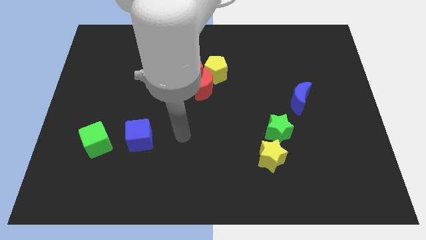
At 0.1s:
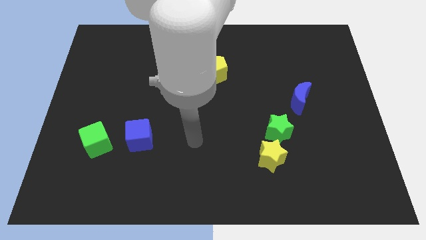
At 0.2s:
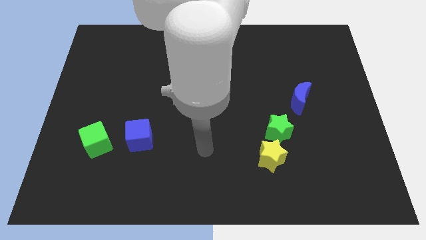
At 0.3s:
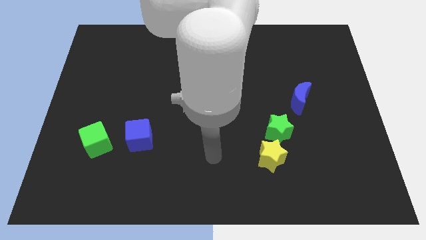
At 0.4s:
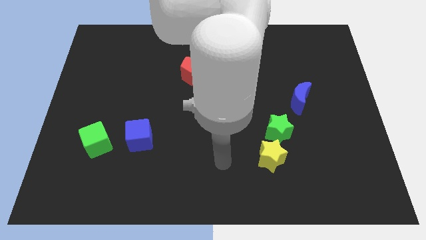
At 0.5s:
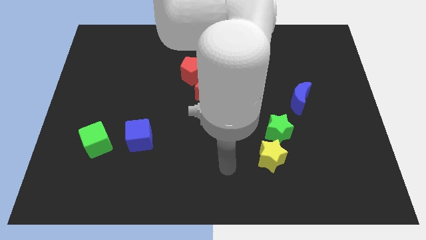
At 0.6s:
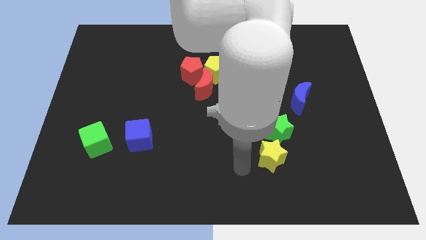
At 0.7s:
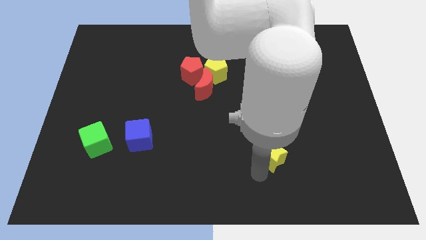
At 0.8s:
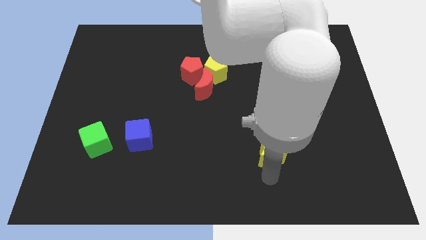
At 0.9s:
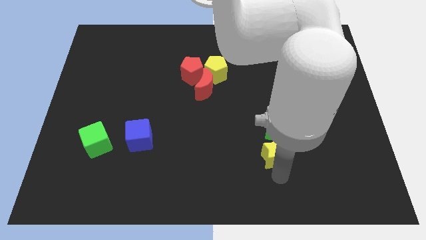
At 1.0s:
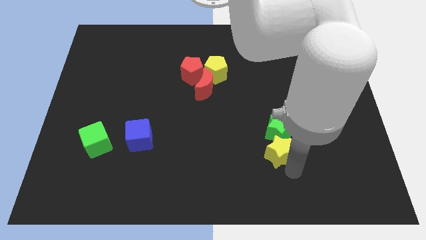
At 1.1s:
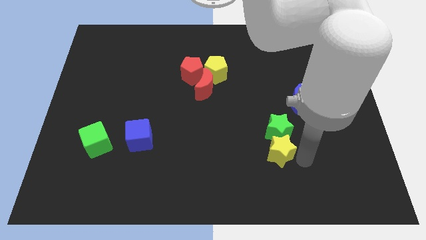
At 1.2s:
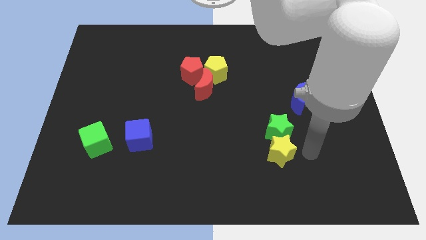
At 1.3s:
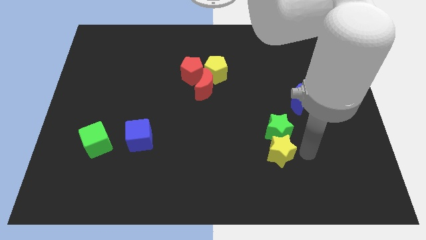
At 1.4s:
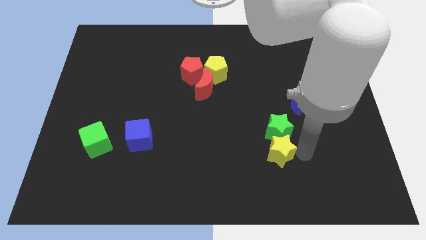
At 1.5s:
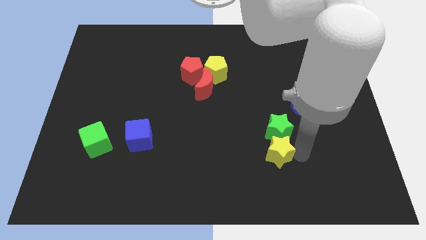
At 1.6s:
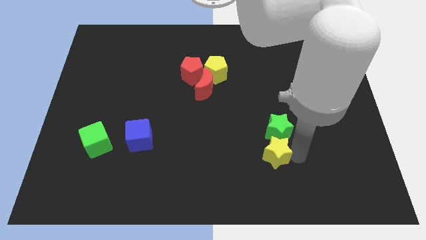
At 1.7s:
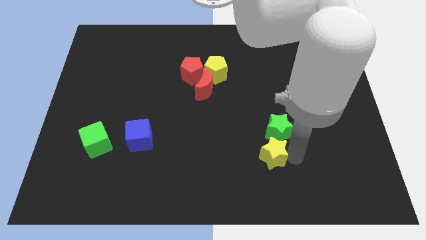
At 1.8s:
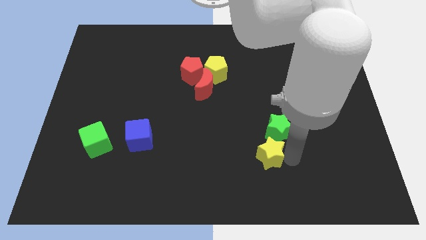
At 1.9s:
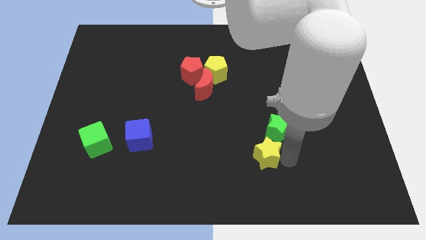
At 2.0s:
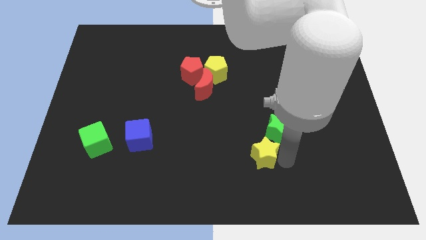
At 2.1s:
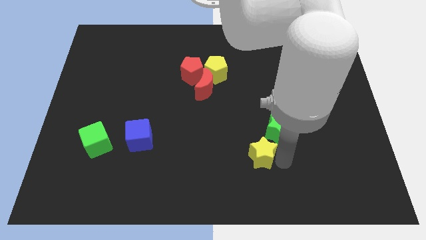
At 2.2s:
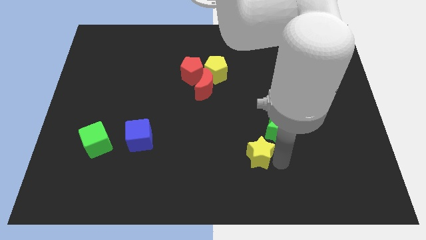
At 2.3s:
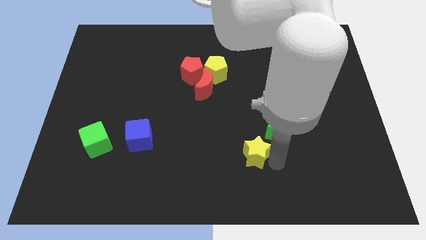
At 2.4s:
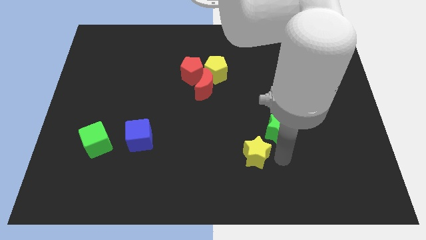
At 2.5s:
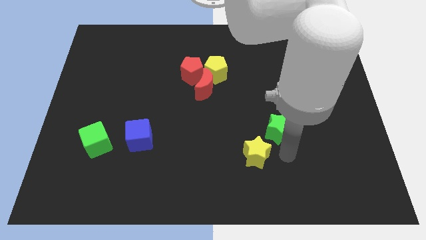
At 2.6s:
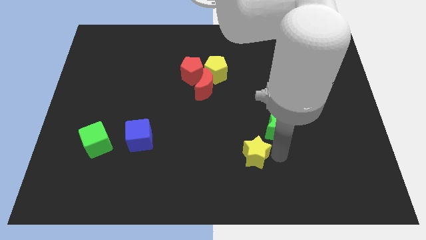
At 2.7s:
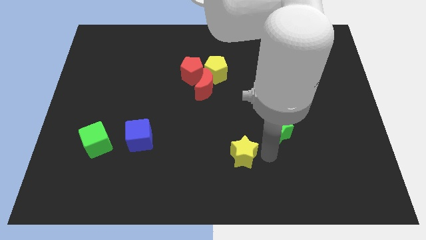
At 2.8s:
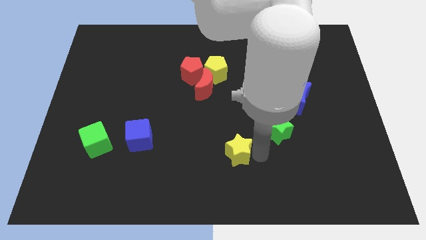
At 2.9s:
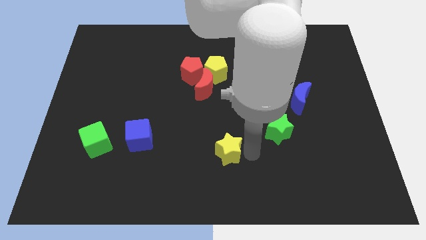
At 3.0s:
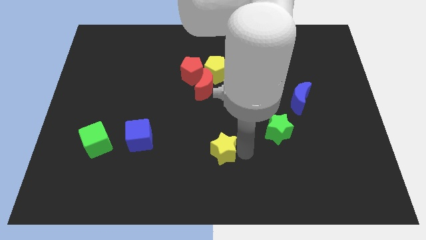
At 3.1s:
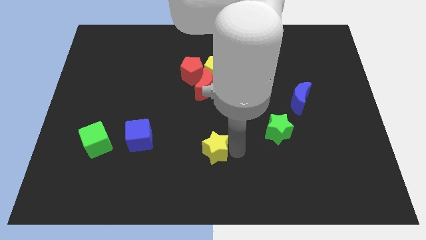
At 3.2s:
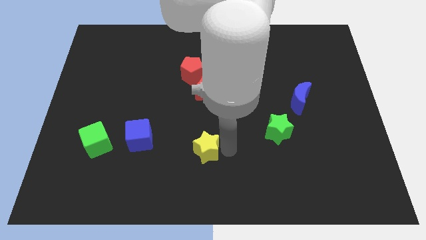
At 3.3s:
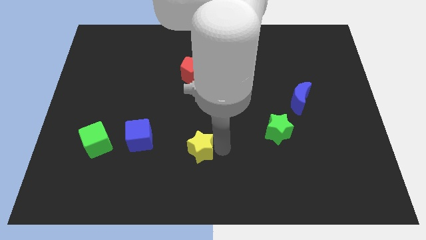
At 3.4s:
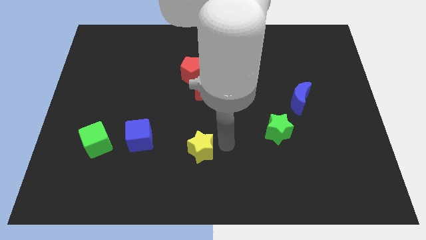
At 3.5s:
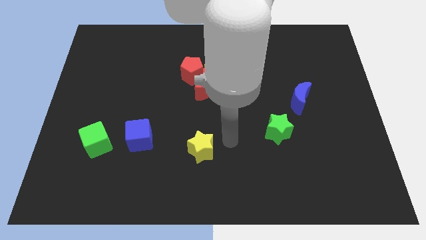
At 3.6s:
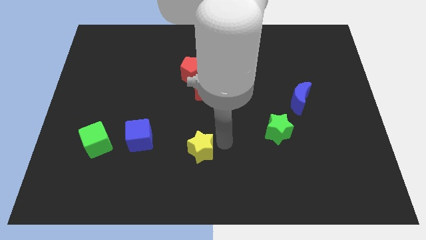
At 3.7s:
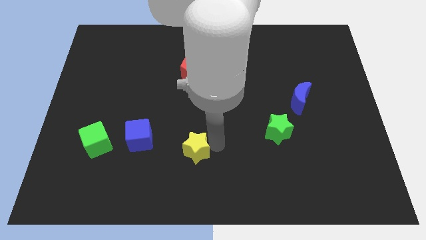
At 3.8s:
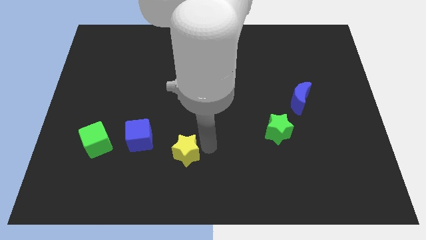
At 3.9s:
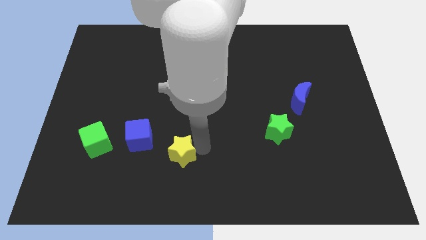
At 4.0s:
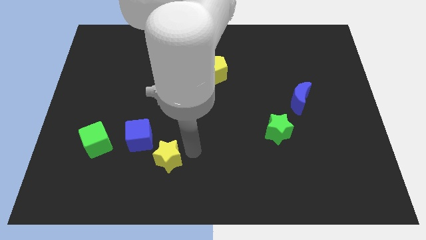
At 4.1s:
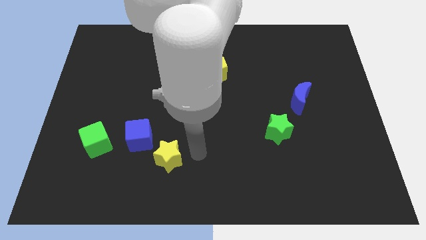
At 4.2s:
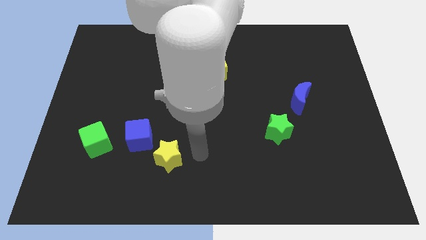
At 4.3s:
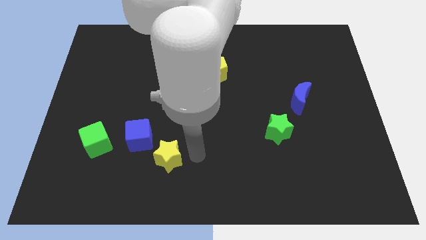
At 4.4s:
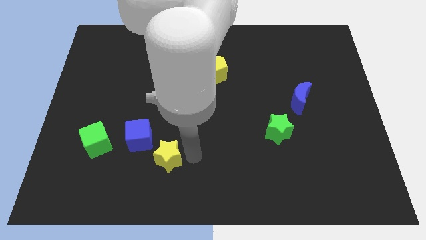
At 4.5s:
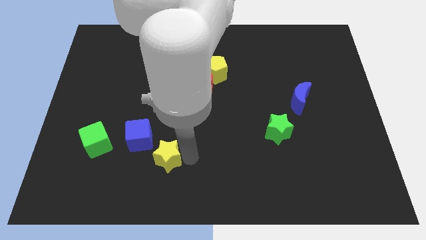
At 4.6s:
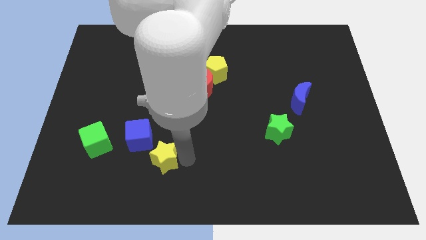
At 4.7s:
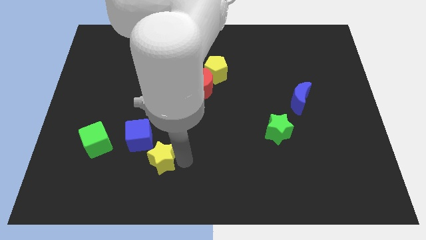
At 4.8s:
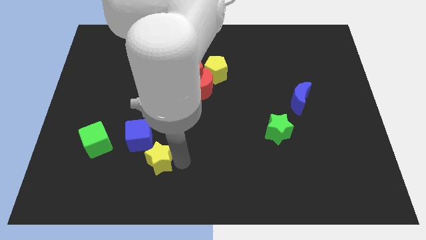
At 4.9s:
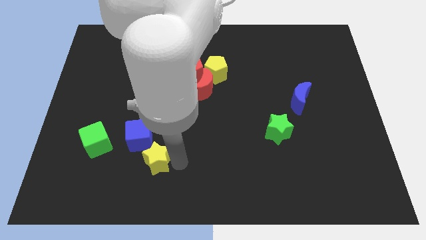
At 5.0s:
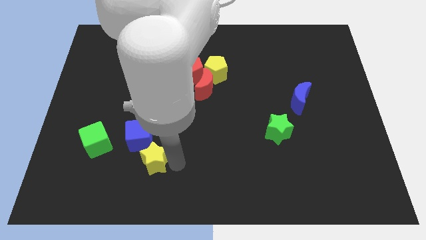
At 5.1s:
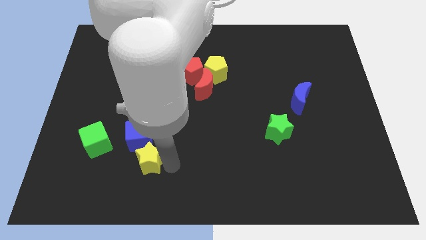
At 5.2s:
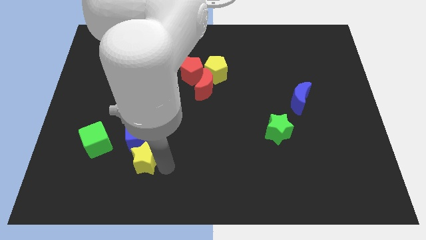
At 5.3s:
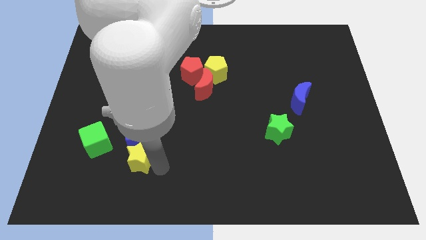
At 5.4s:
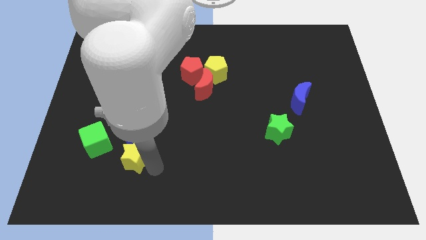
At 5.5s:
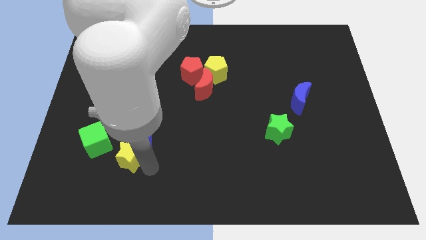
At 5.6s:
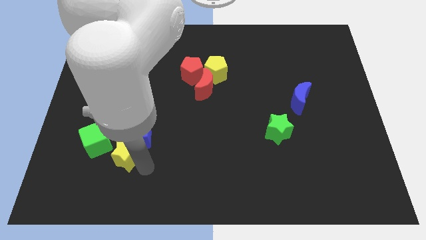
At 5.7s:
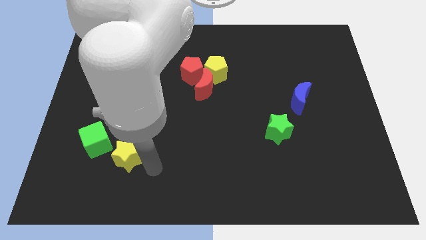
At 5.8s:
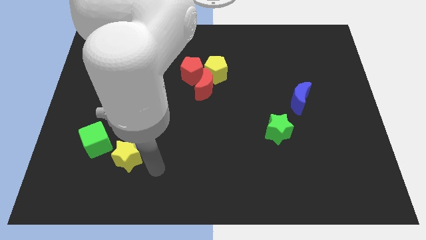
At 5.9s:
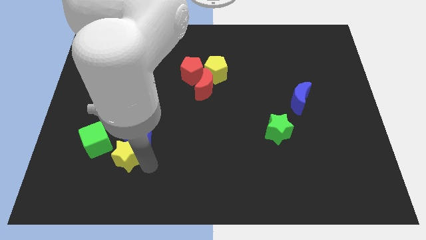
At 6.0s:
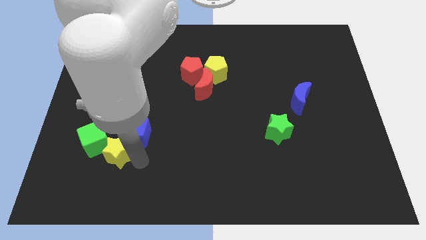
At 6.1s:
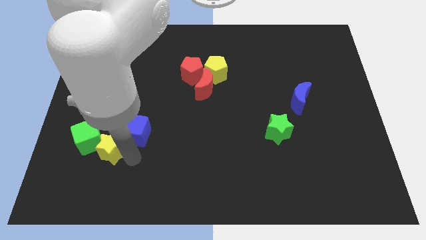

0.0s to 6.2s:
push the yellow star next to the green cube

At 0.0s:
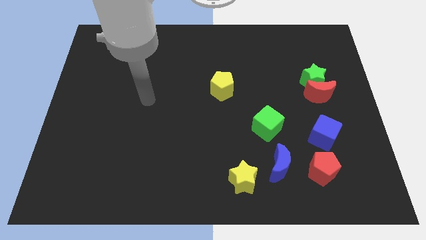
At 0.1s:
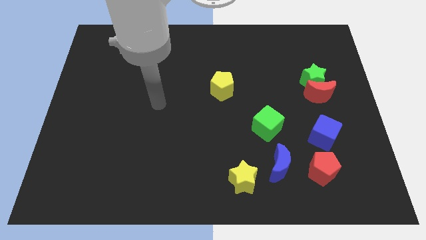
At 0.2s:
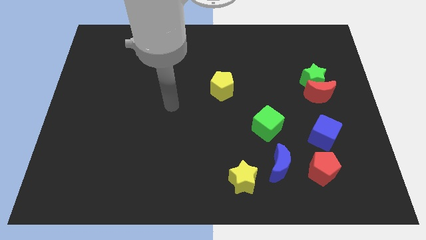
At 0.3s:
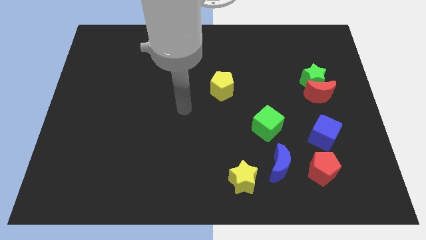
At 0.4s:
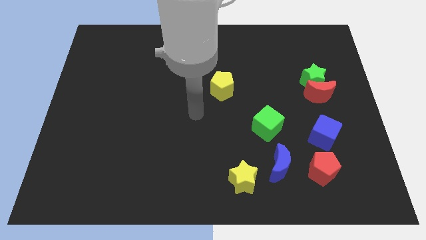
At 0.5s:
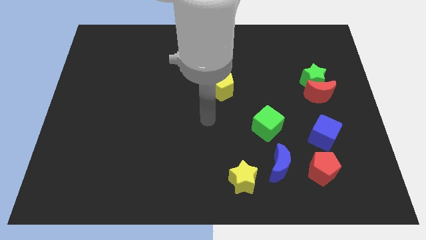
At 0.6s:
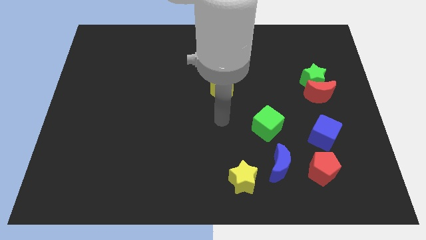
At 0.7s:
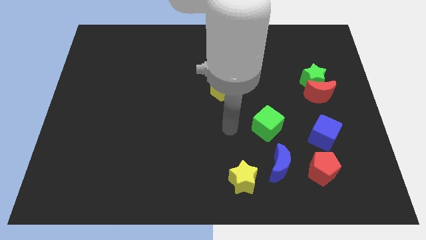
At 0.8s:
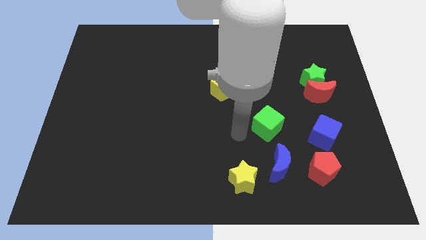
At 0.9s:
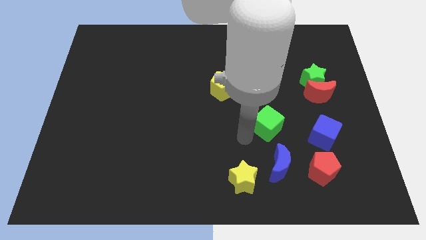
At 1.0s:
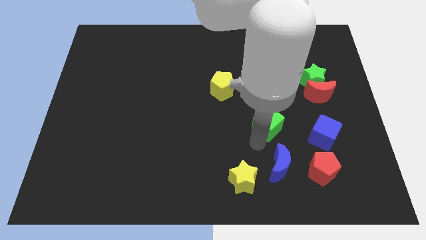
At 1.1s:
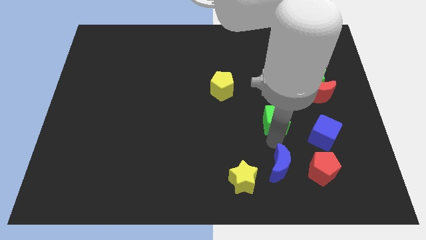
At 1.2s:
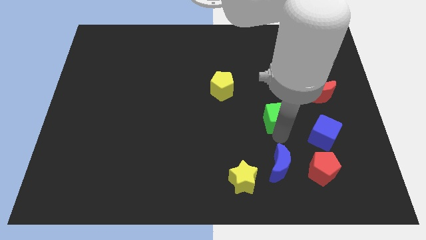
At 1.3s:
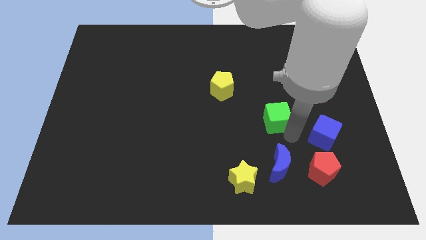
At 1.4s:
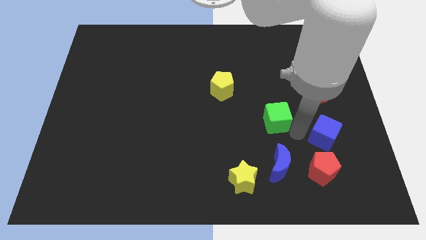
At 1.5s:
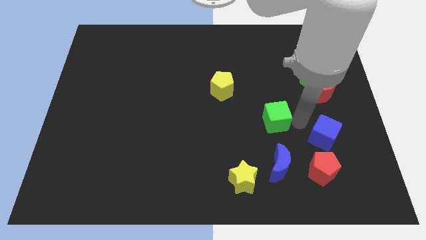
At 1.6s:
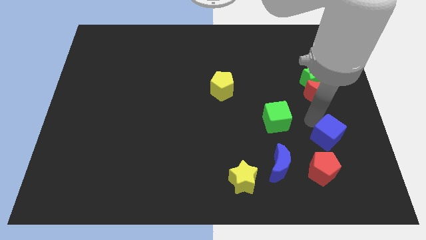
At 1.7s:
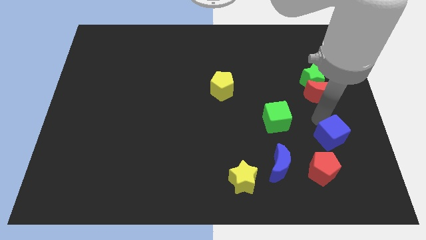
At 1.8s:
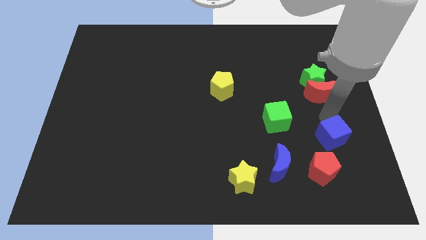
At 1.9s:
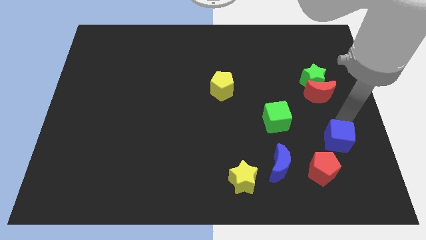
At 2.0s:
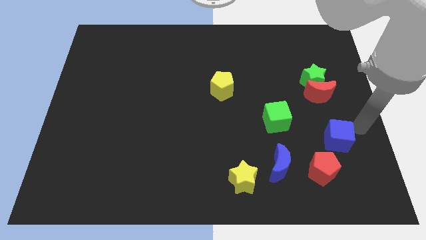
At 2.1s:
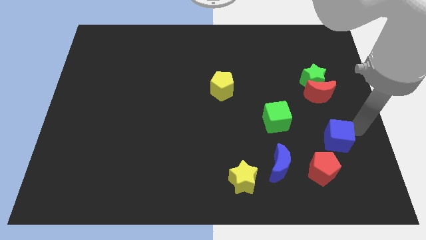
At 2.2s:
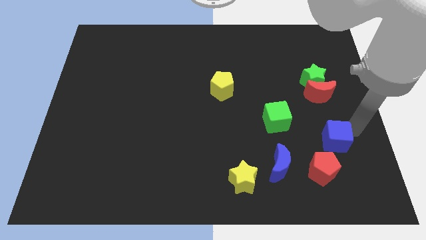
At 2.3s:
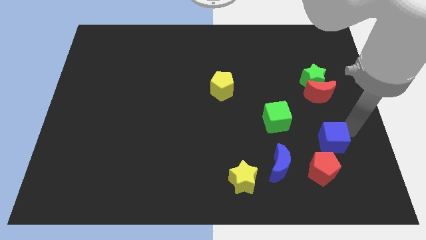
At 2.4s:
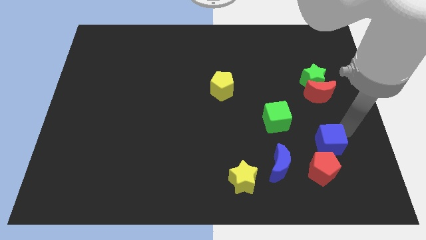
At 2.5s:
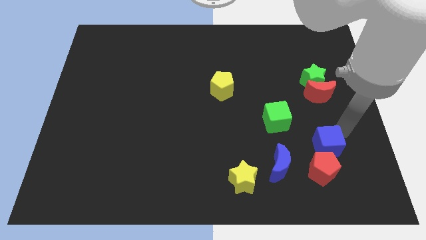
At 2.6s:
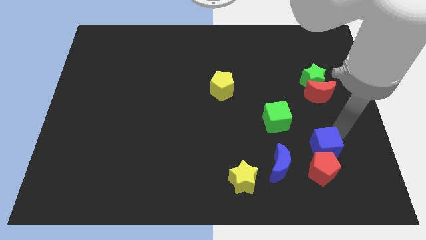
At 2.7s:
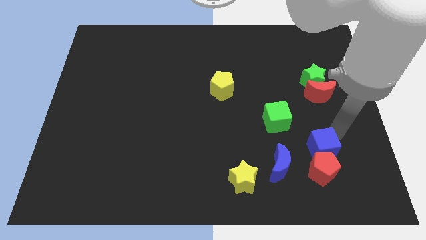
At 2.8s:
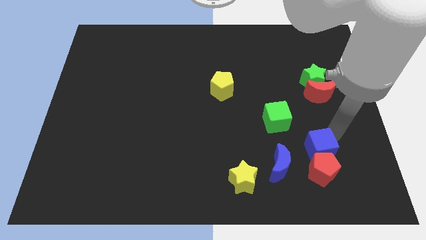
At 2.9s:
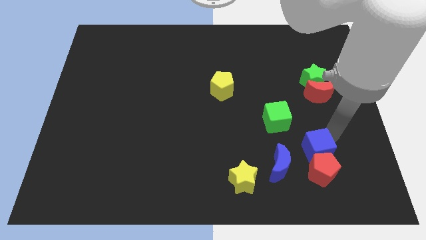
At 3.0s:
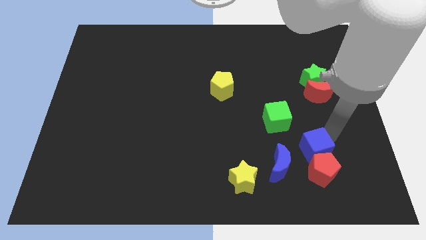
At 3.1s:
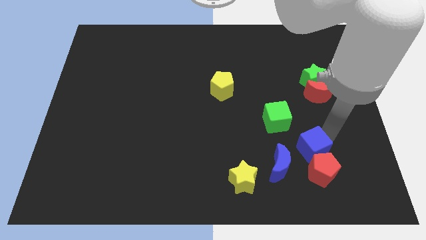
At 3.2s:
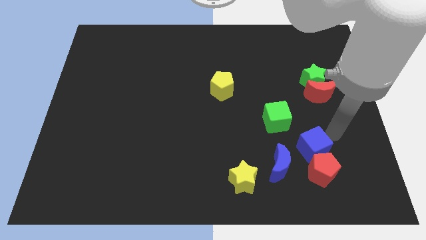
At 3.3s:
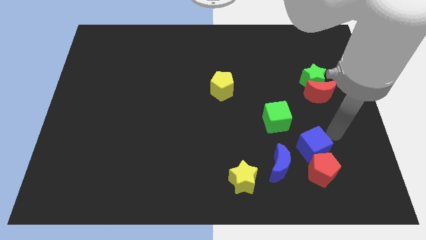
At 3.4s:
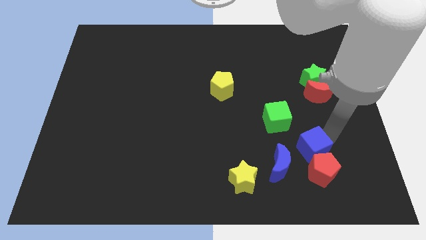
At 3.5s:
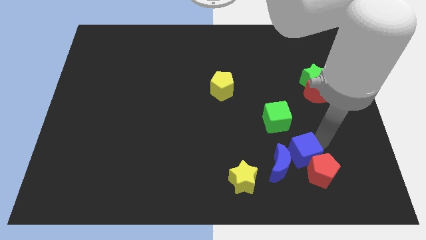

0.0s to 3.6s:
slide the blue cube close to the blue moon
